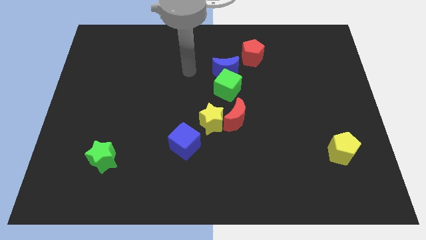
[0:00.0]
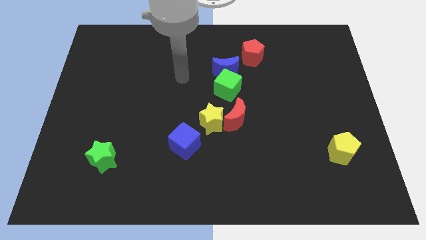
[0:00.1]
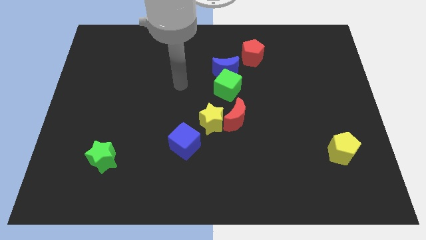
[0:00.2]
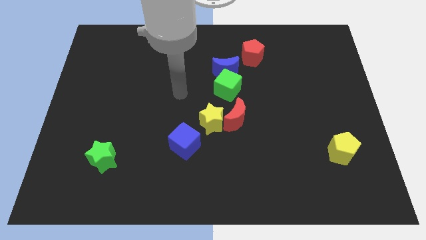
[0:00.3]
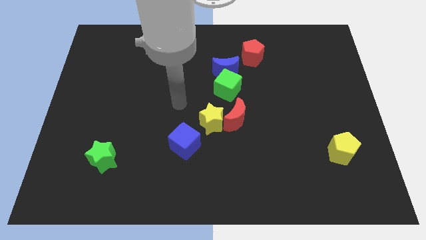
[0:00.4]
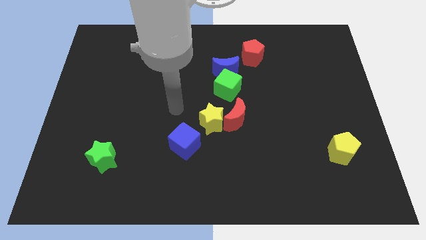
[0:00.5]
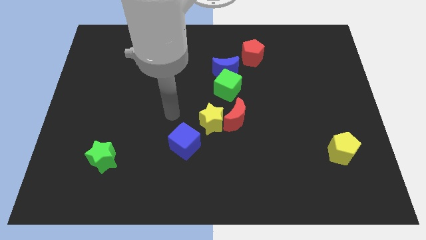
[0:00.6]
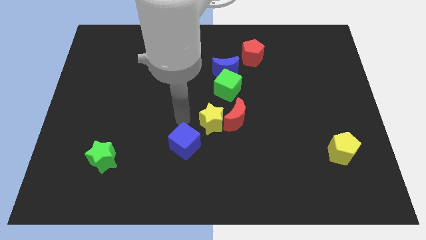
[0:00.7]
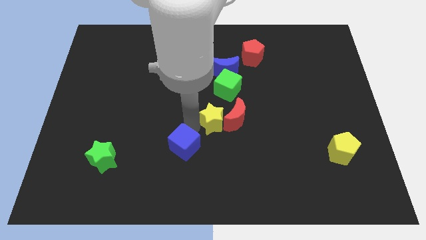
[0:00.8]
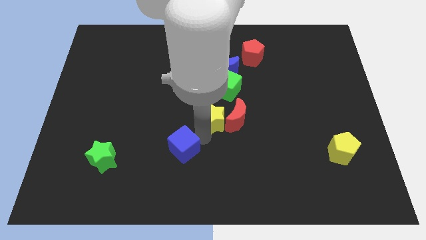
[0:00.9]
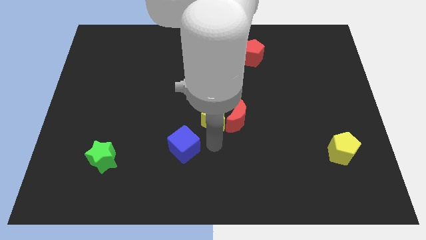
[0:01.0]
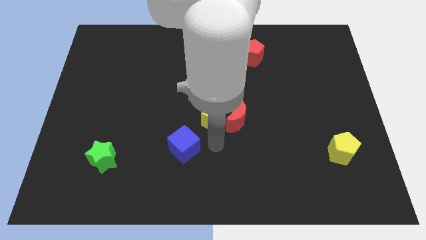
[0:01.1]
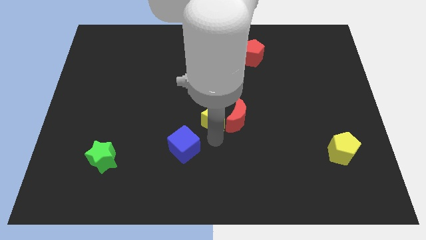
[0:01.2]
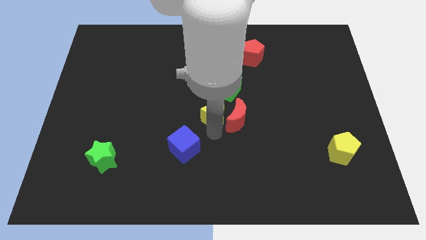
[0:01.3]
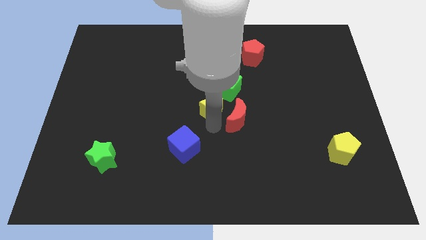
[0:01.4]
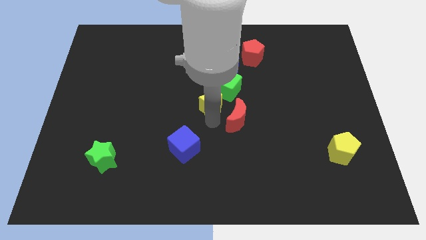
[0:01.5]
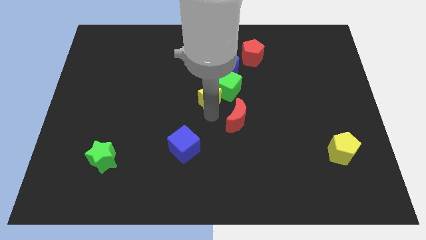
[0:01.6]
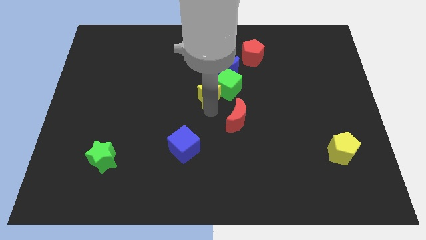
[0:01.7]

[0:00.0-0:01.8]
separate the yellow star from the red moon and blue cube

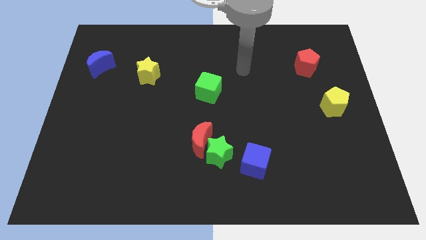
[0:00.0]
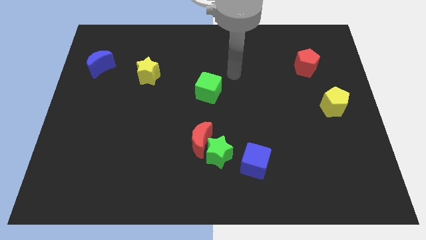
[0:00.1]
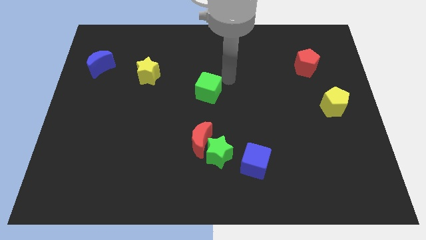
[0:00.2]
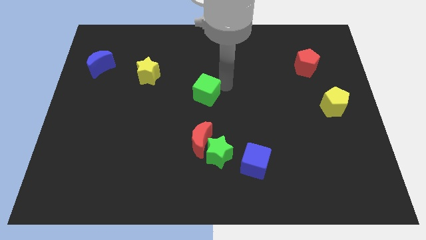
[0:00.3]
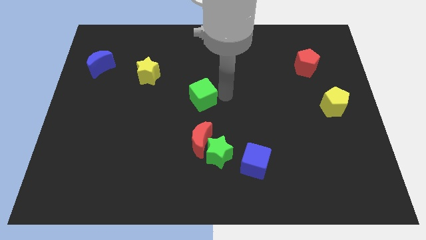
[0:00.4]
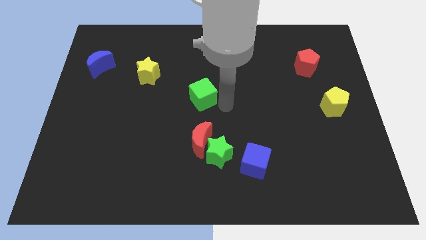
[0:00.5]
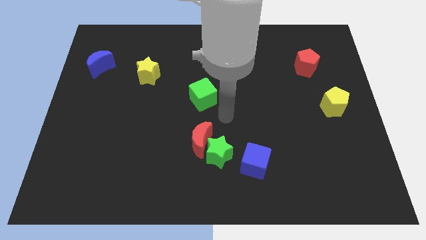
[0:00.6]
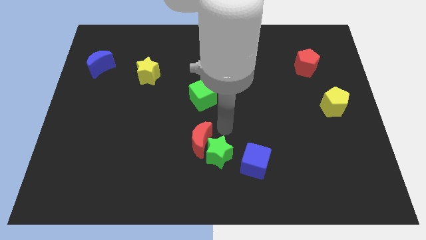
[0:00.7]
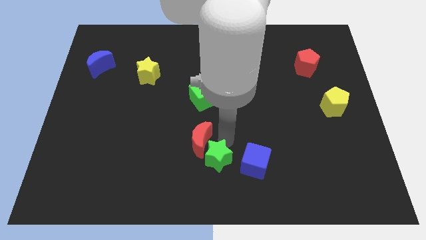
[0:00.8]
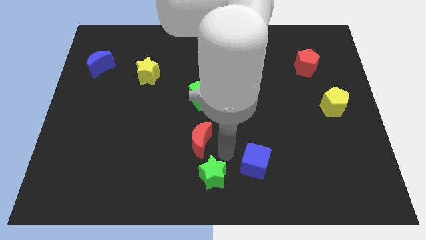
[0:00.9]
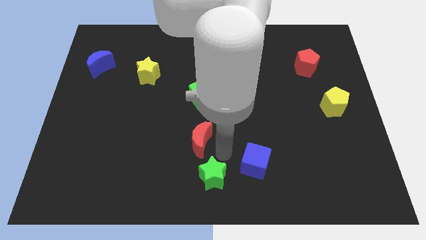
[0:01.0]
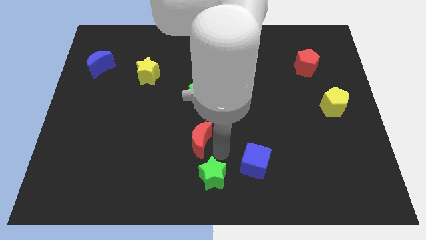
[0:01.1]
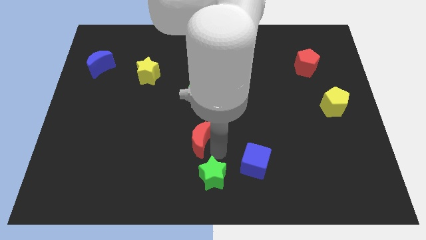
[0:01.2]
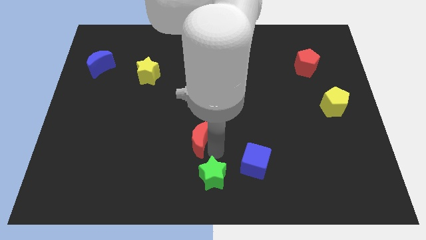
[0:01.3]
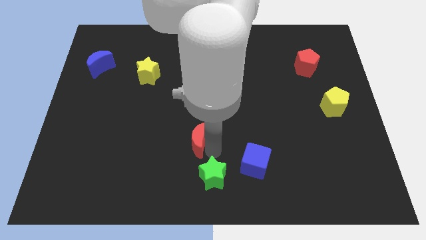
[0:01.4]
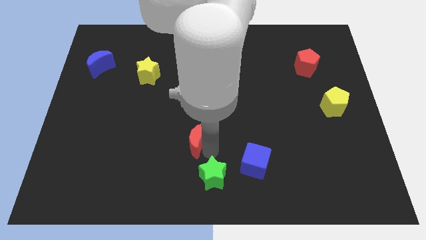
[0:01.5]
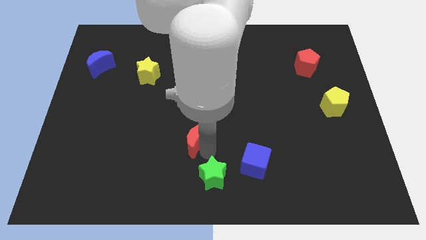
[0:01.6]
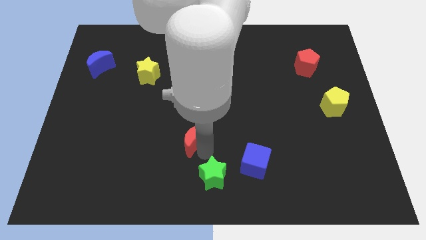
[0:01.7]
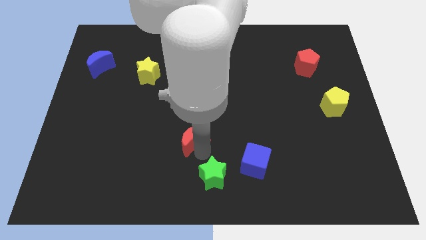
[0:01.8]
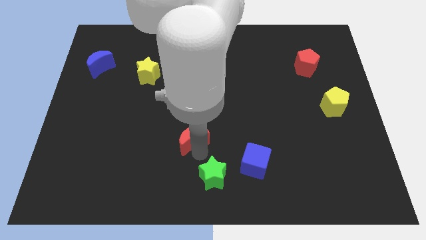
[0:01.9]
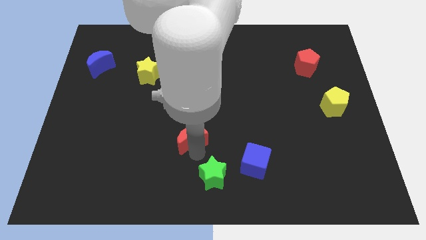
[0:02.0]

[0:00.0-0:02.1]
separate the red moon from the green star

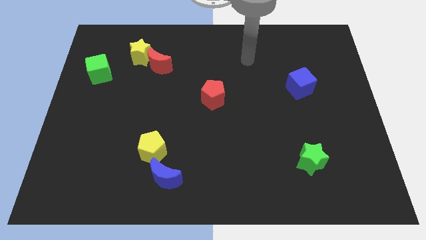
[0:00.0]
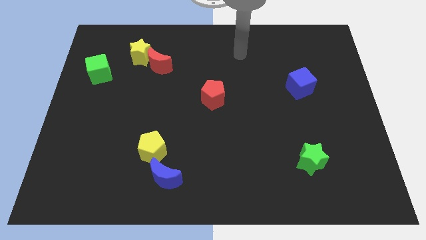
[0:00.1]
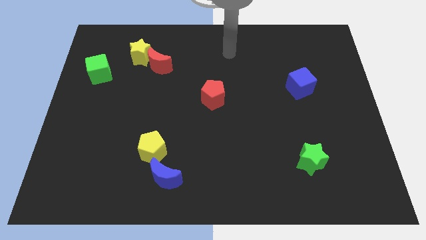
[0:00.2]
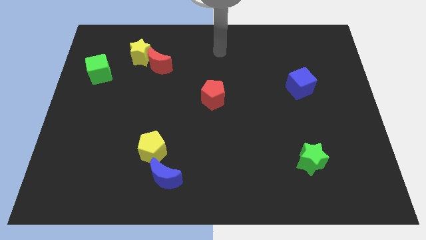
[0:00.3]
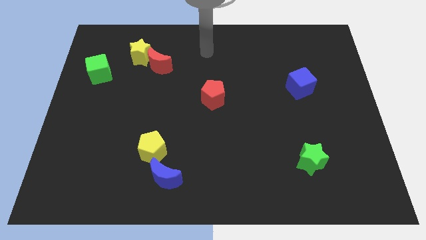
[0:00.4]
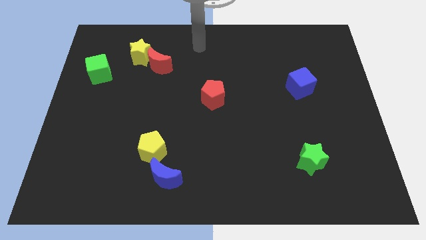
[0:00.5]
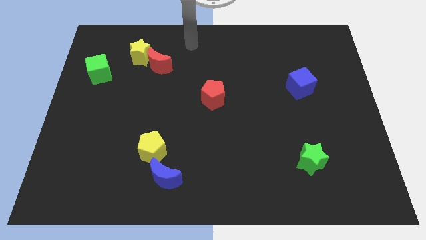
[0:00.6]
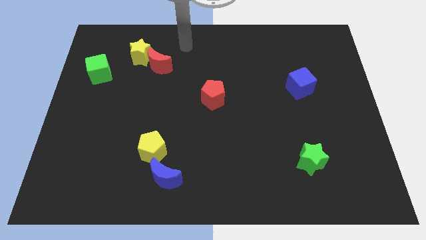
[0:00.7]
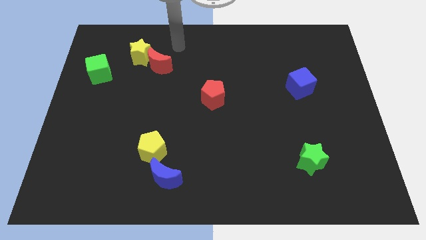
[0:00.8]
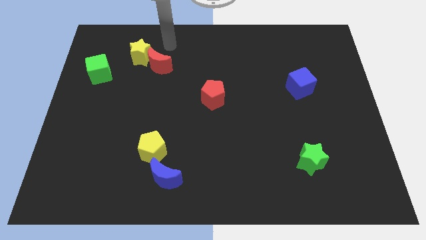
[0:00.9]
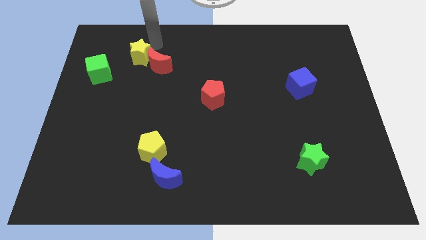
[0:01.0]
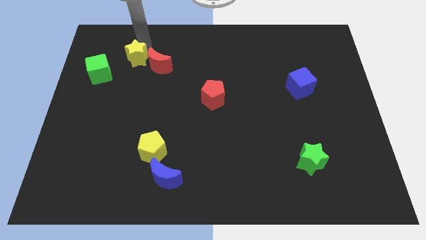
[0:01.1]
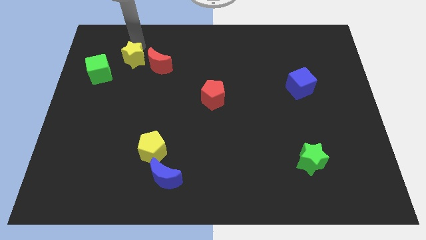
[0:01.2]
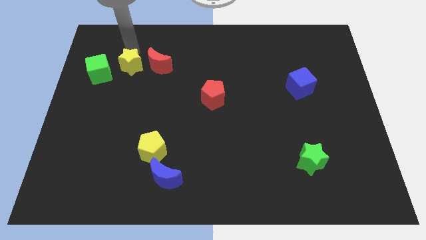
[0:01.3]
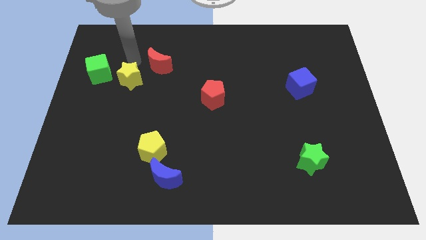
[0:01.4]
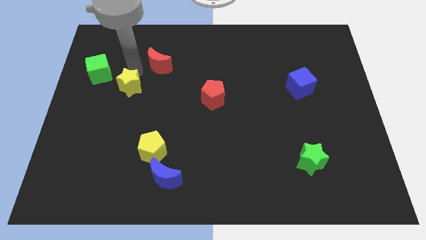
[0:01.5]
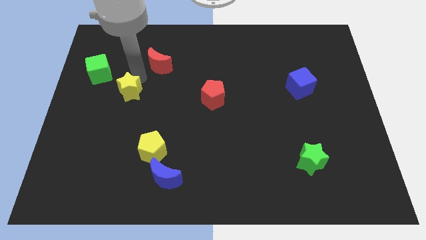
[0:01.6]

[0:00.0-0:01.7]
separate the red moon from the yellow star

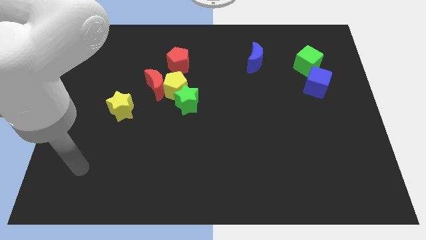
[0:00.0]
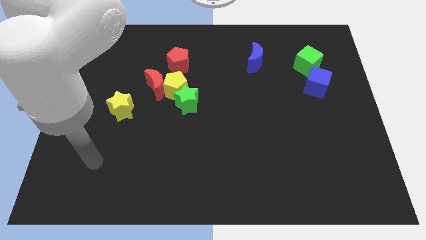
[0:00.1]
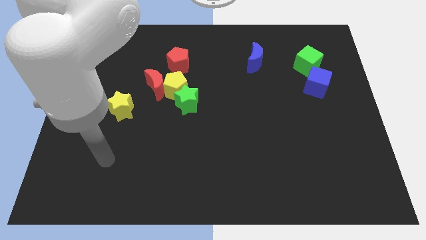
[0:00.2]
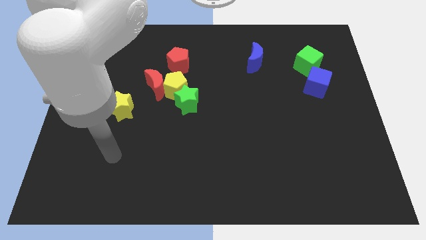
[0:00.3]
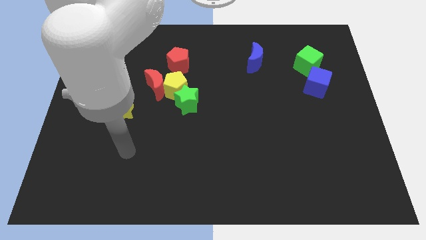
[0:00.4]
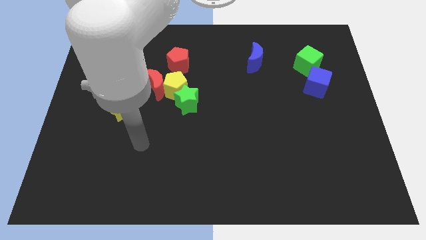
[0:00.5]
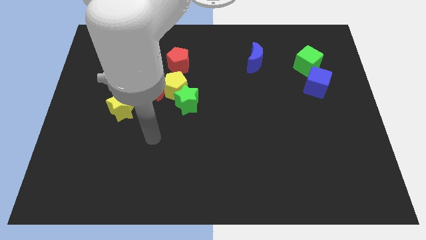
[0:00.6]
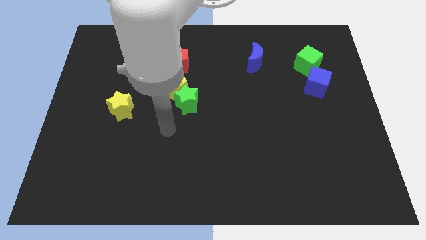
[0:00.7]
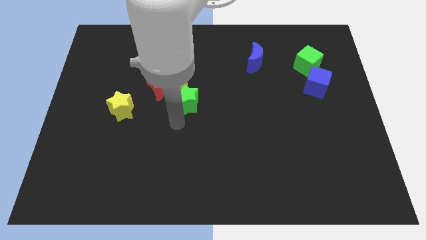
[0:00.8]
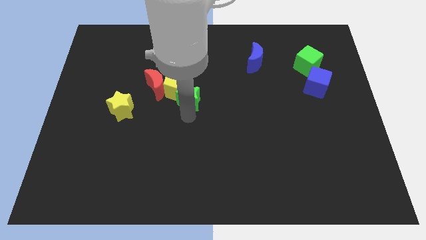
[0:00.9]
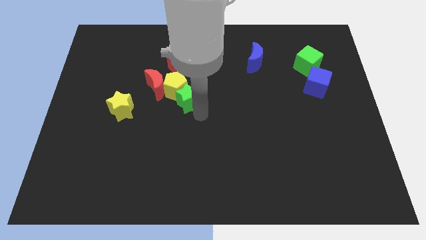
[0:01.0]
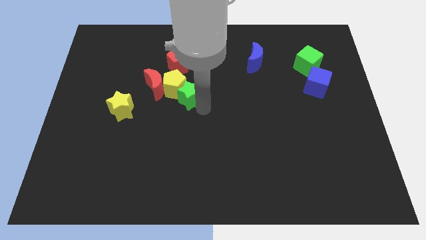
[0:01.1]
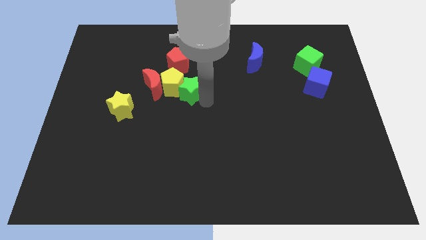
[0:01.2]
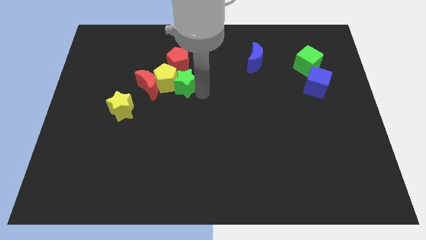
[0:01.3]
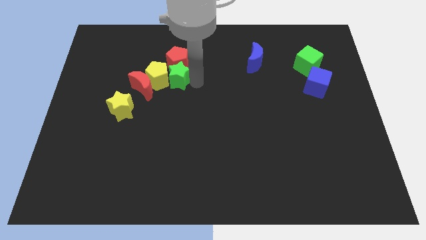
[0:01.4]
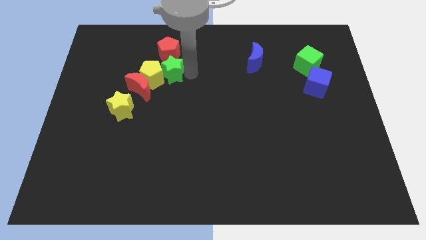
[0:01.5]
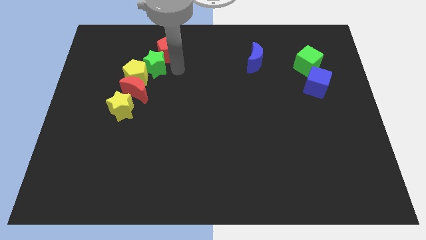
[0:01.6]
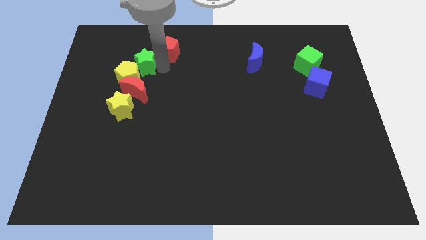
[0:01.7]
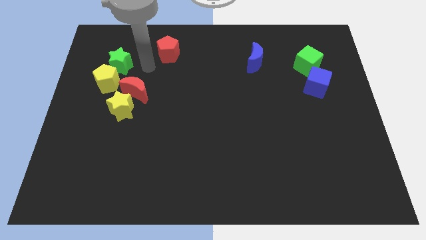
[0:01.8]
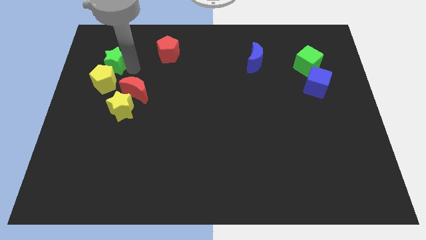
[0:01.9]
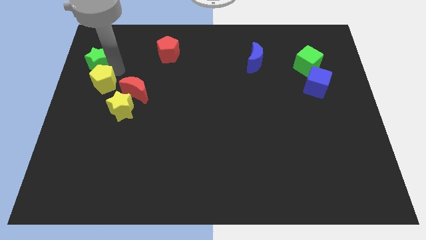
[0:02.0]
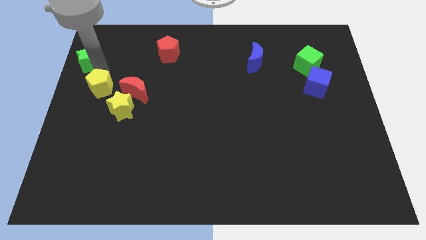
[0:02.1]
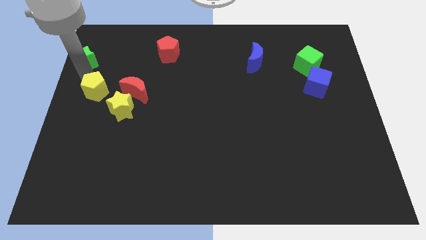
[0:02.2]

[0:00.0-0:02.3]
move the yellow pentagon away from the green star, red moon, and red pentagon

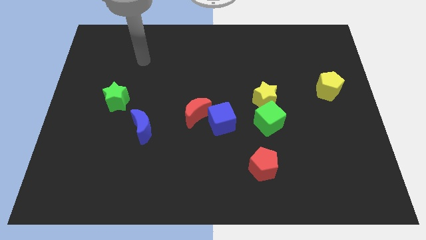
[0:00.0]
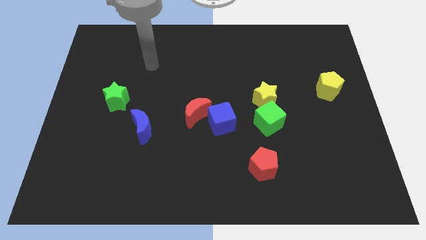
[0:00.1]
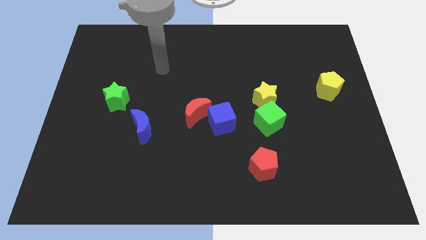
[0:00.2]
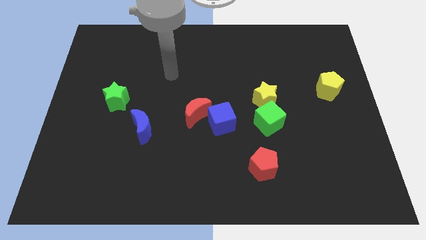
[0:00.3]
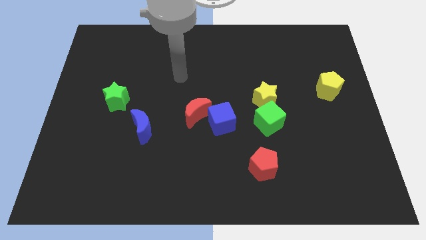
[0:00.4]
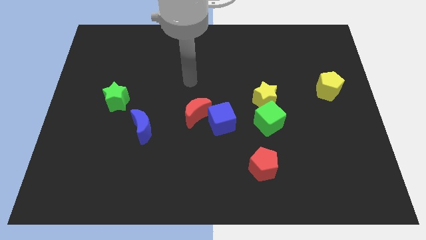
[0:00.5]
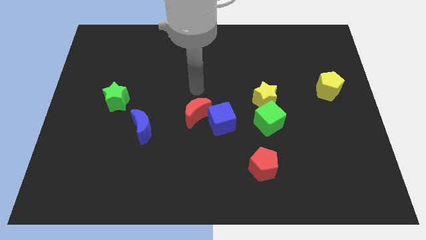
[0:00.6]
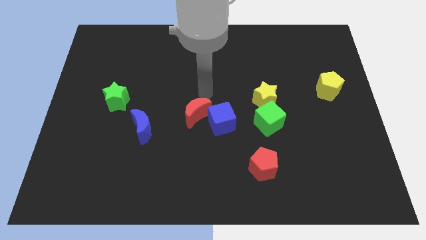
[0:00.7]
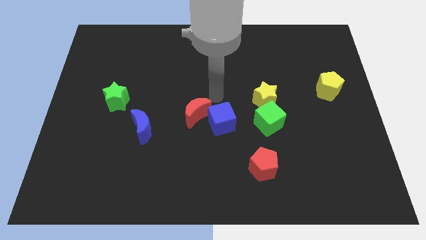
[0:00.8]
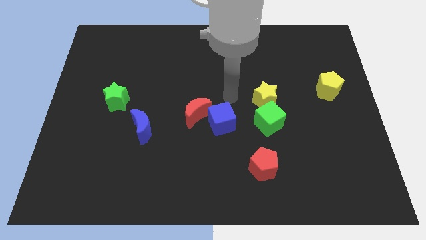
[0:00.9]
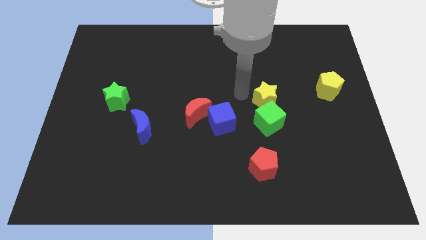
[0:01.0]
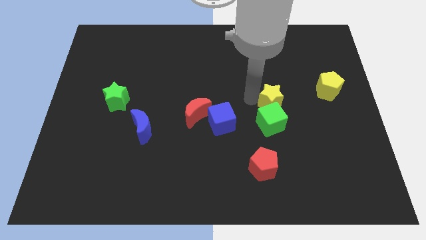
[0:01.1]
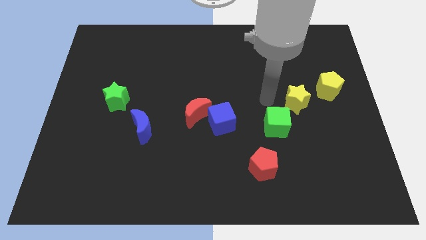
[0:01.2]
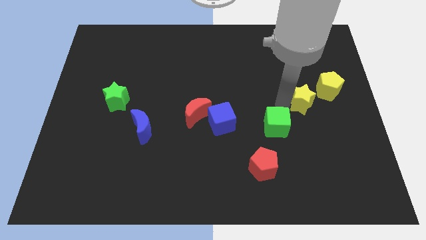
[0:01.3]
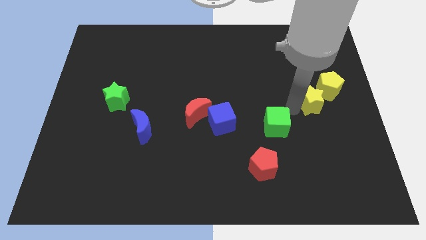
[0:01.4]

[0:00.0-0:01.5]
pull the green cube apart from the yellow star
